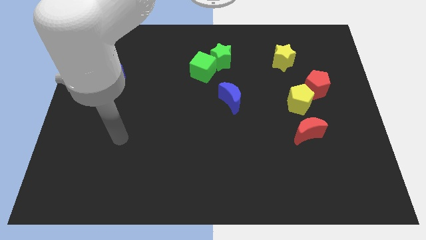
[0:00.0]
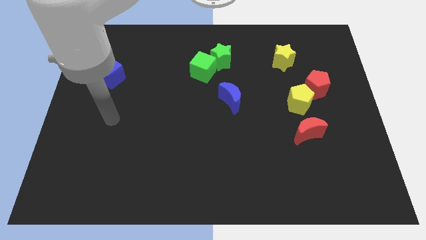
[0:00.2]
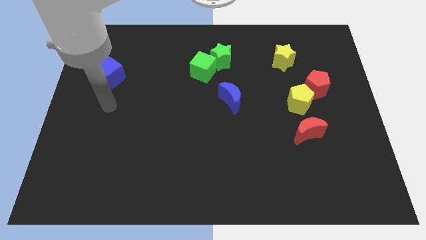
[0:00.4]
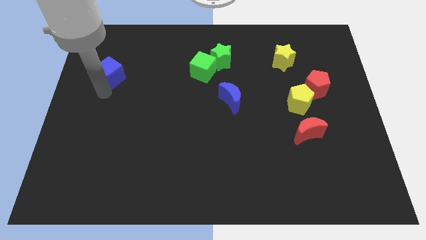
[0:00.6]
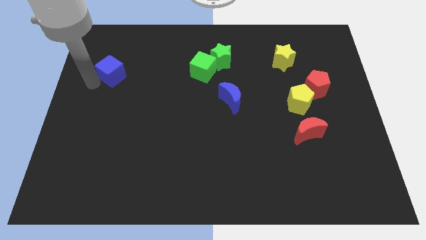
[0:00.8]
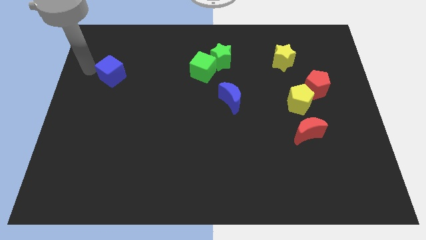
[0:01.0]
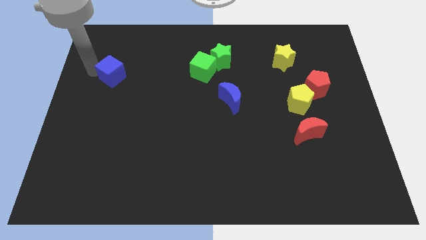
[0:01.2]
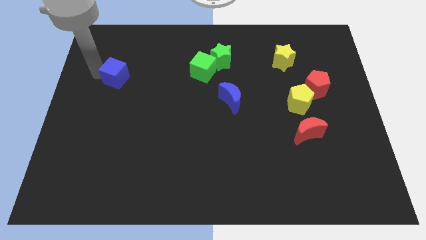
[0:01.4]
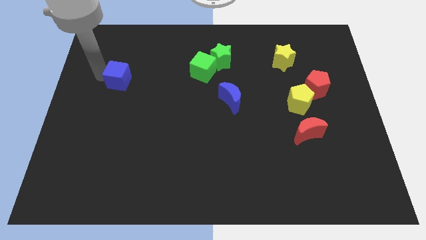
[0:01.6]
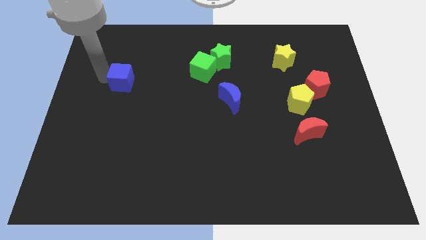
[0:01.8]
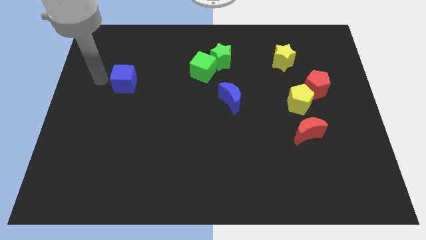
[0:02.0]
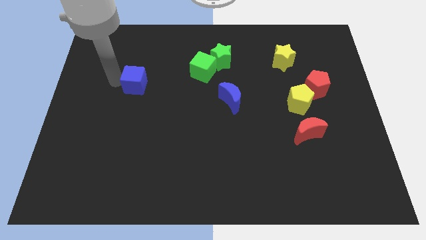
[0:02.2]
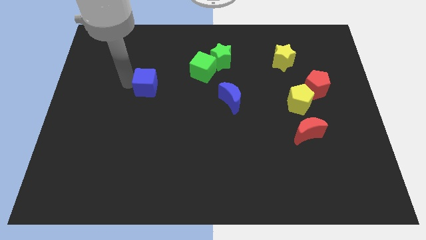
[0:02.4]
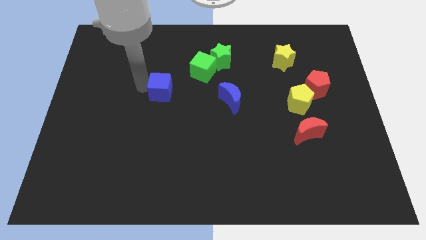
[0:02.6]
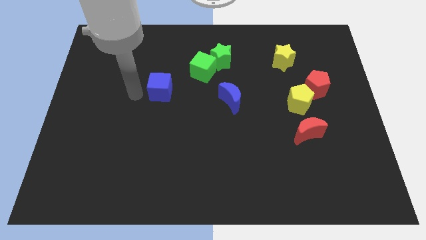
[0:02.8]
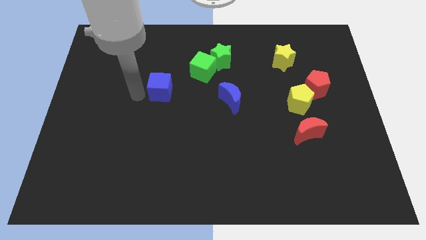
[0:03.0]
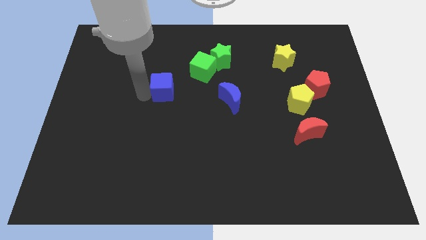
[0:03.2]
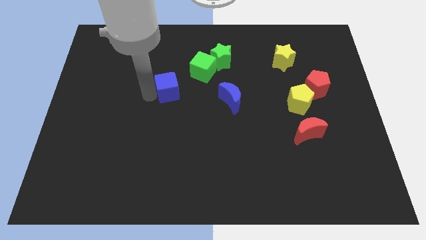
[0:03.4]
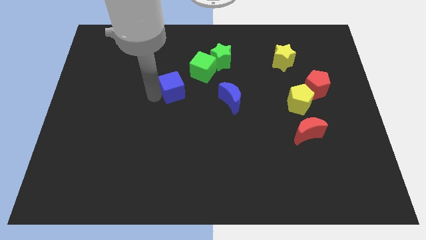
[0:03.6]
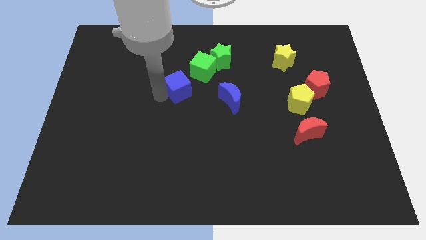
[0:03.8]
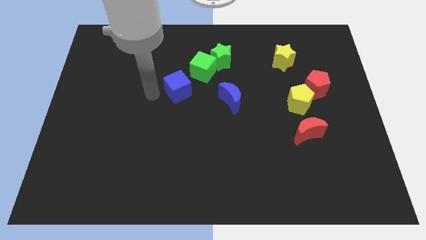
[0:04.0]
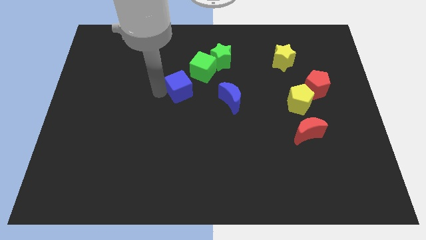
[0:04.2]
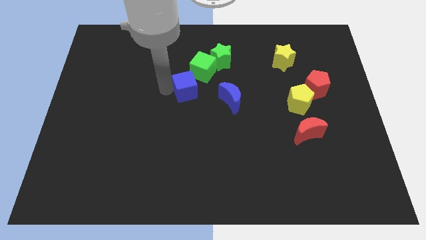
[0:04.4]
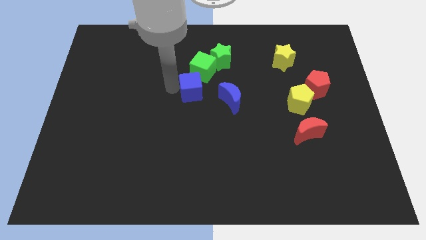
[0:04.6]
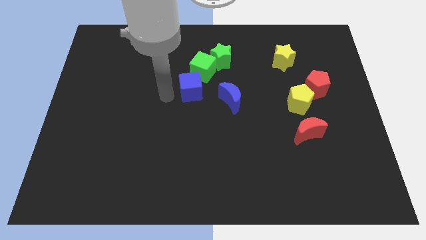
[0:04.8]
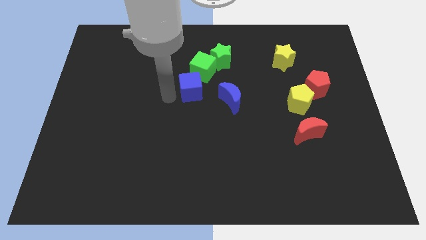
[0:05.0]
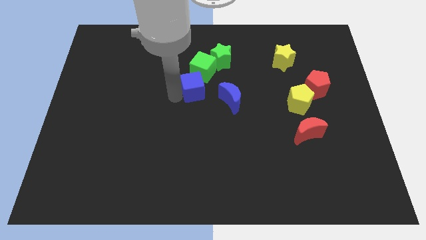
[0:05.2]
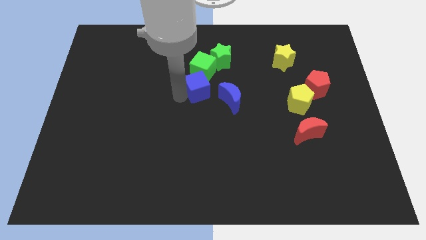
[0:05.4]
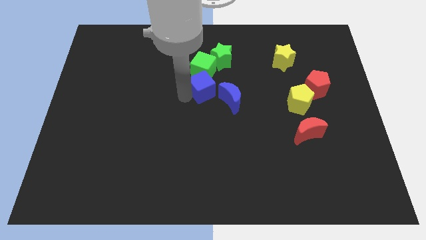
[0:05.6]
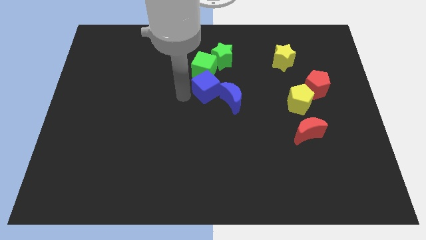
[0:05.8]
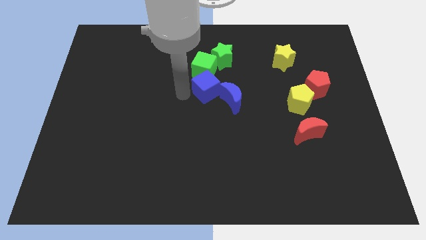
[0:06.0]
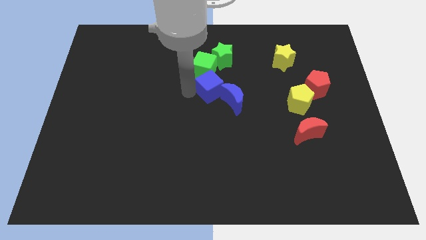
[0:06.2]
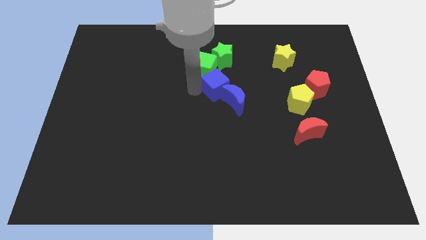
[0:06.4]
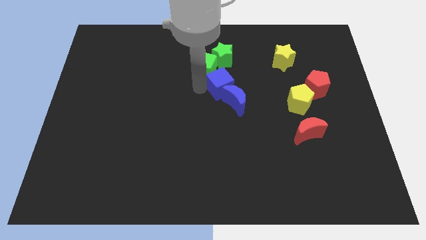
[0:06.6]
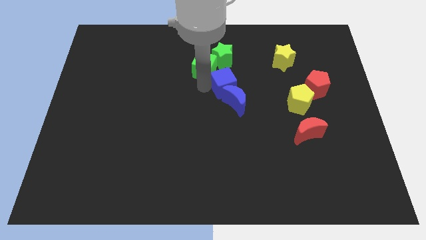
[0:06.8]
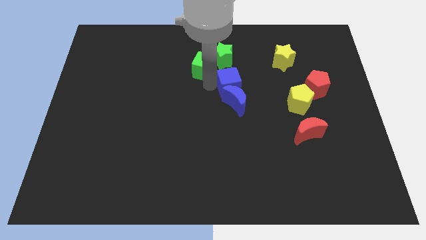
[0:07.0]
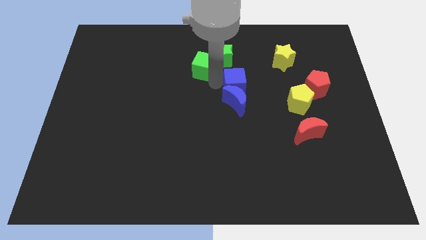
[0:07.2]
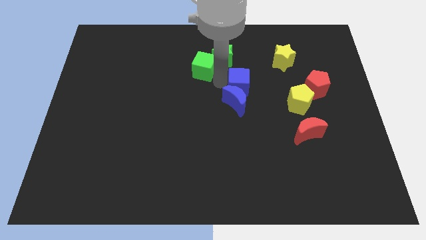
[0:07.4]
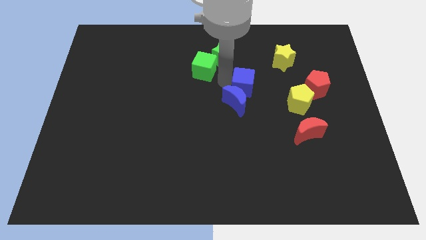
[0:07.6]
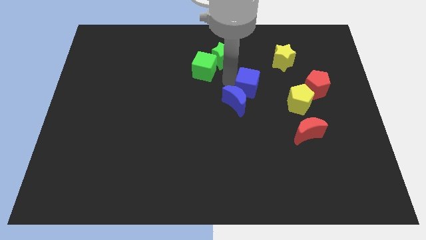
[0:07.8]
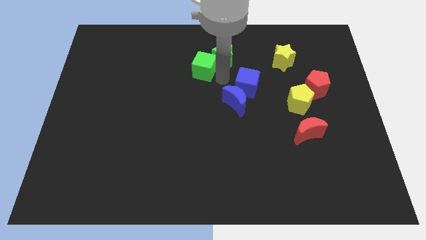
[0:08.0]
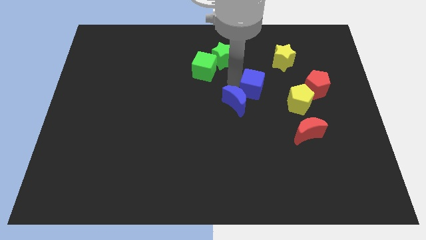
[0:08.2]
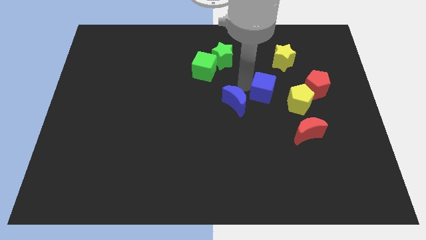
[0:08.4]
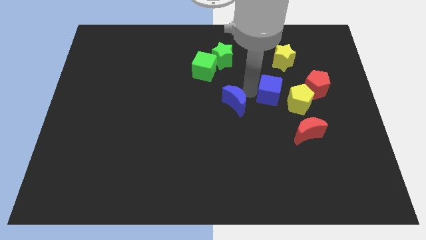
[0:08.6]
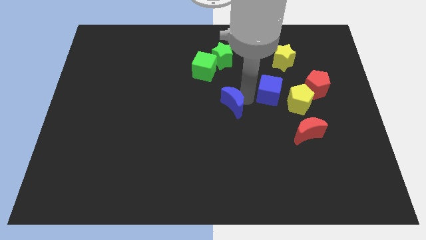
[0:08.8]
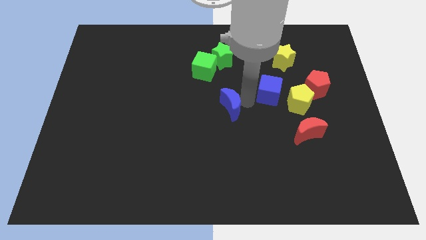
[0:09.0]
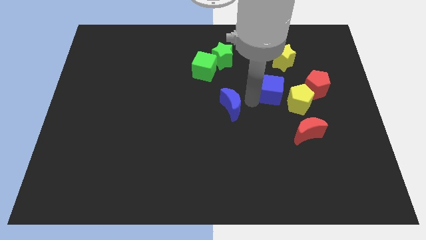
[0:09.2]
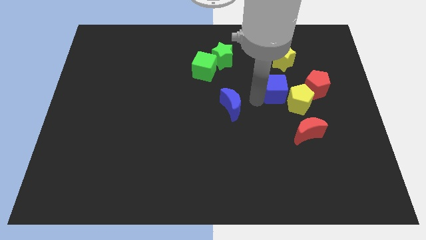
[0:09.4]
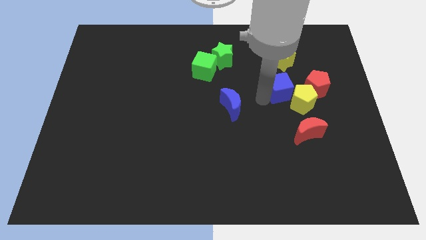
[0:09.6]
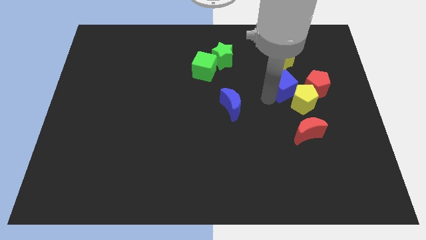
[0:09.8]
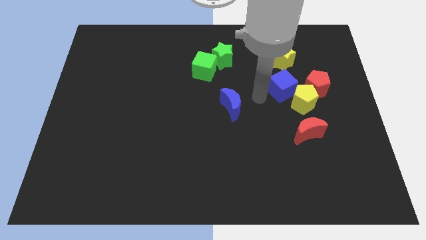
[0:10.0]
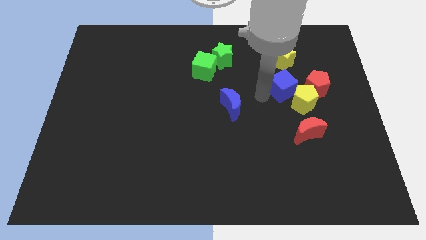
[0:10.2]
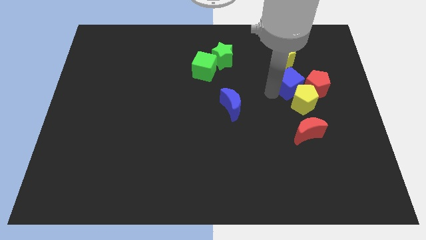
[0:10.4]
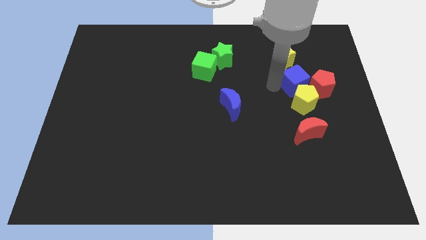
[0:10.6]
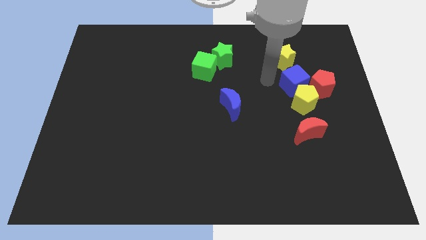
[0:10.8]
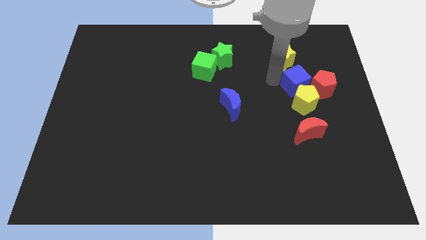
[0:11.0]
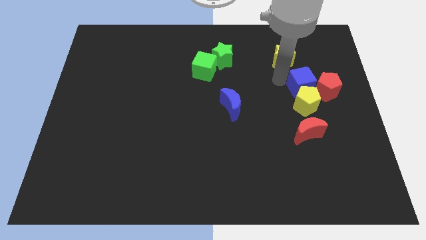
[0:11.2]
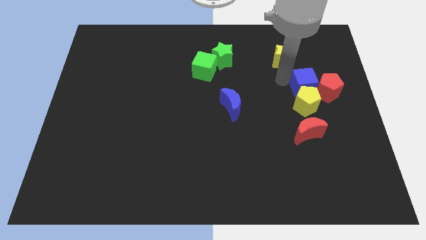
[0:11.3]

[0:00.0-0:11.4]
push the blue cube next to the red pentagon
